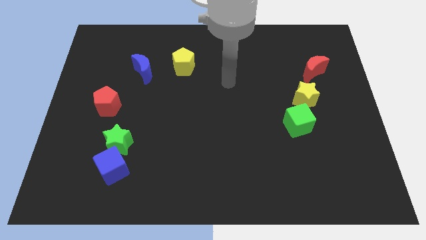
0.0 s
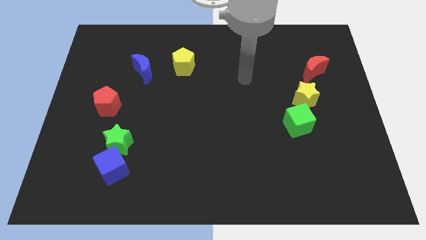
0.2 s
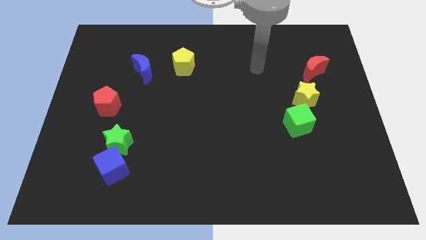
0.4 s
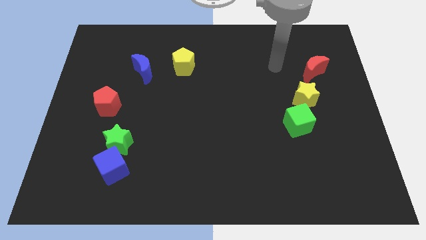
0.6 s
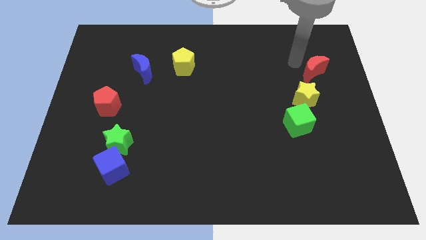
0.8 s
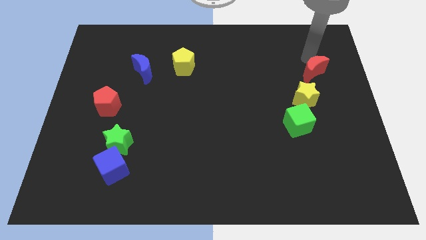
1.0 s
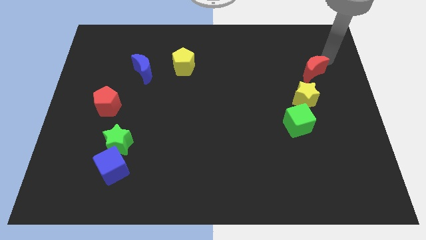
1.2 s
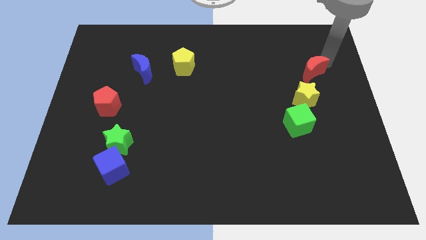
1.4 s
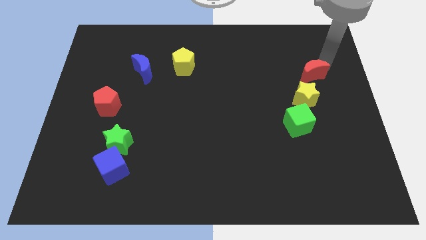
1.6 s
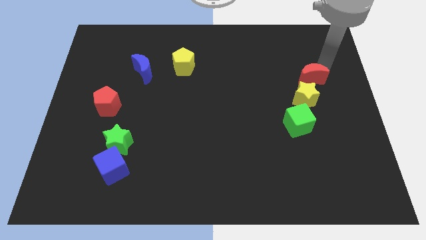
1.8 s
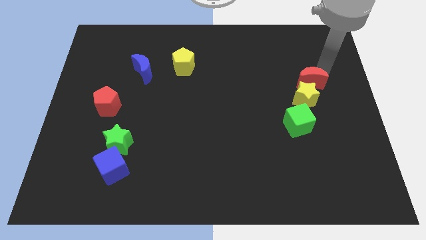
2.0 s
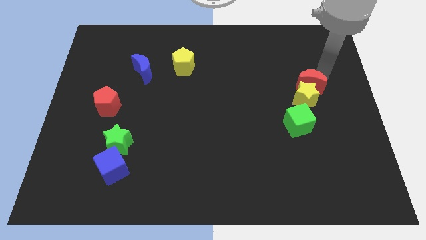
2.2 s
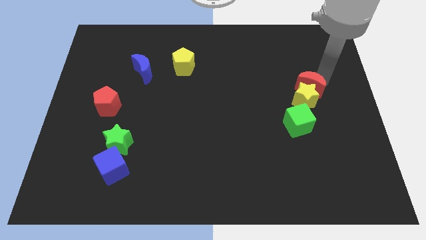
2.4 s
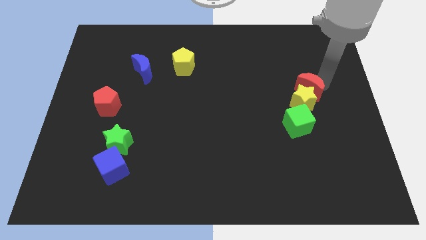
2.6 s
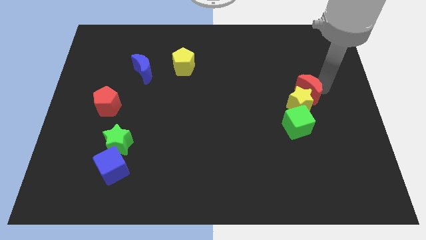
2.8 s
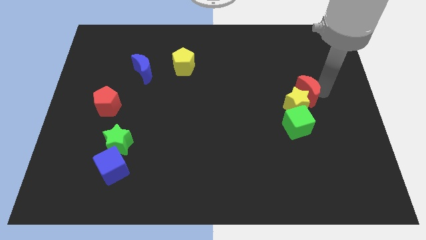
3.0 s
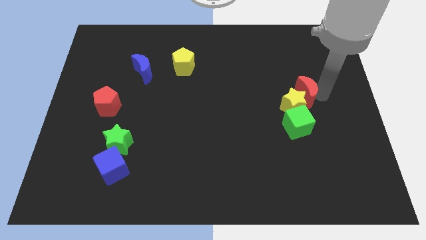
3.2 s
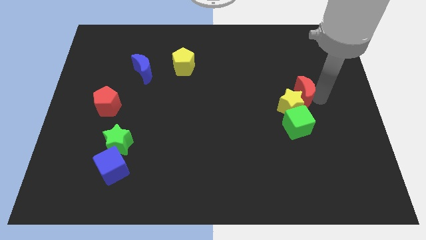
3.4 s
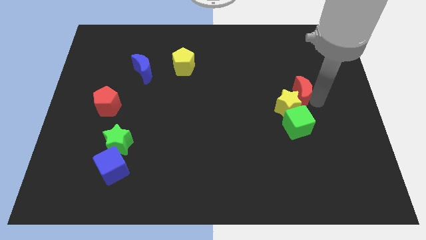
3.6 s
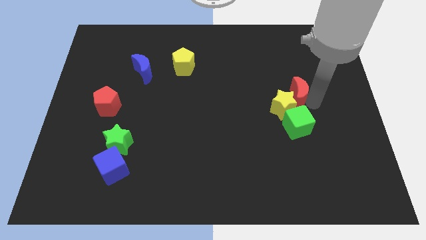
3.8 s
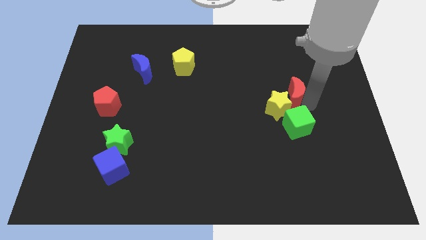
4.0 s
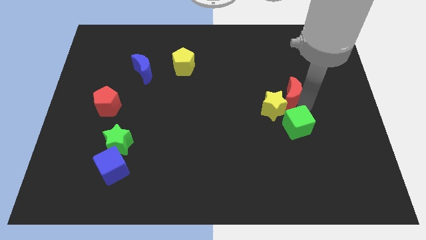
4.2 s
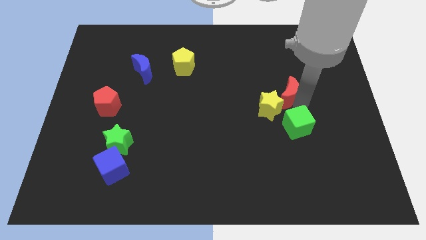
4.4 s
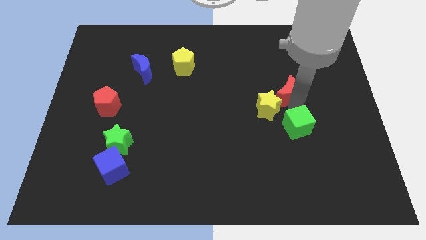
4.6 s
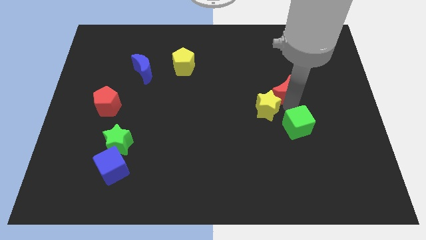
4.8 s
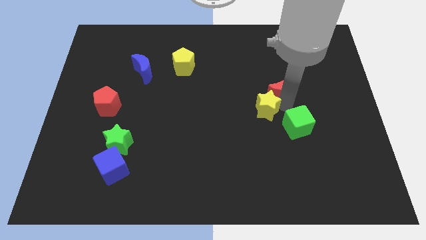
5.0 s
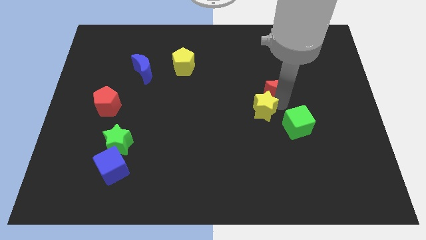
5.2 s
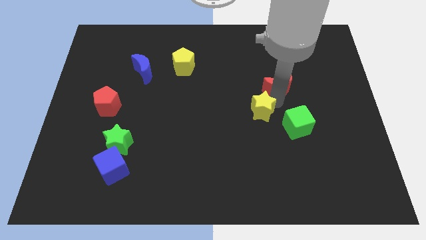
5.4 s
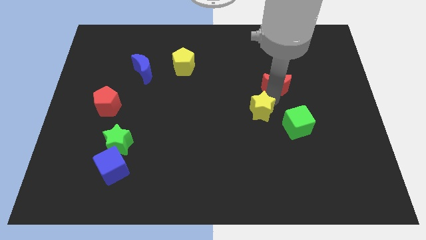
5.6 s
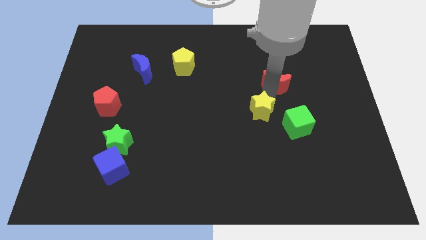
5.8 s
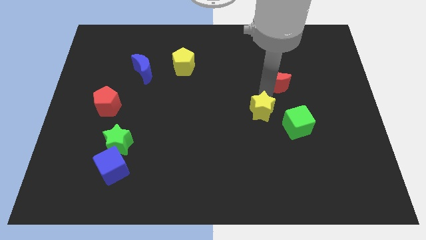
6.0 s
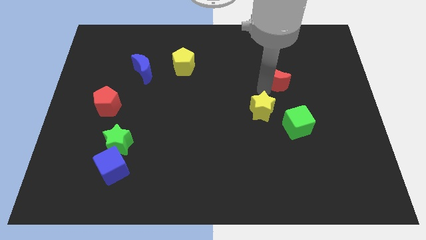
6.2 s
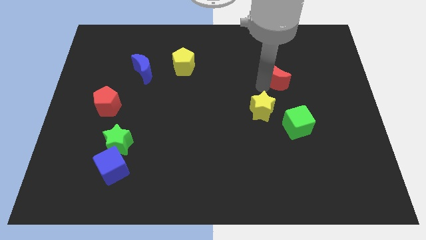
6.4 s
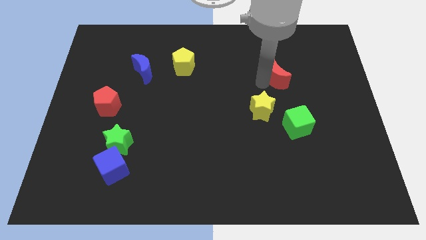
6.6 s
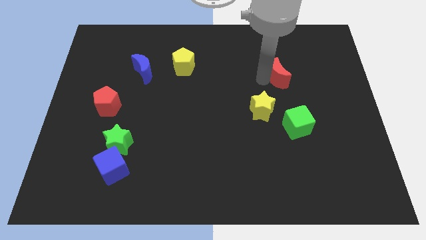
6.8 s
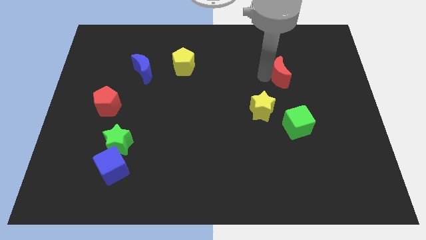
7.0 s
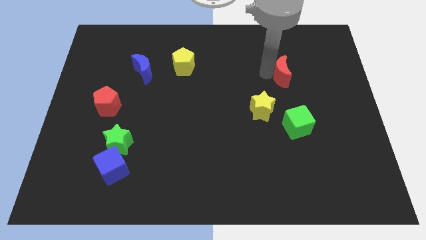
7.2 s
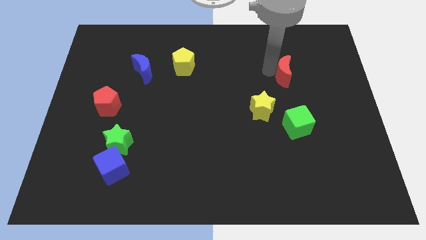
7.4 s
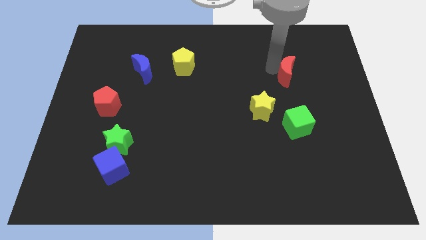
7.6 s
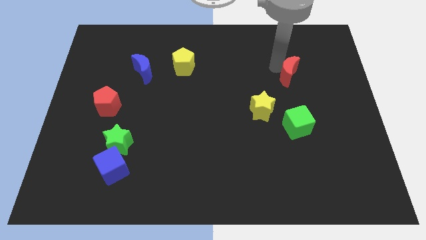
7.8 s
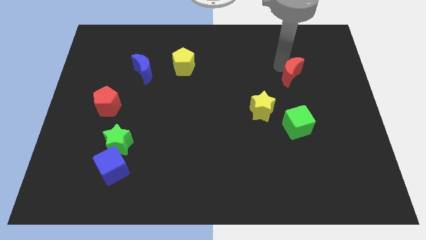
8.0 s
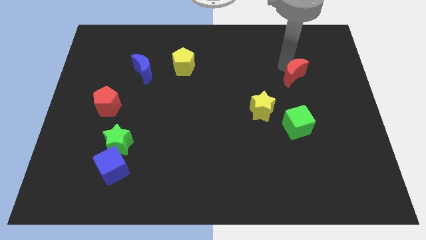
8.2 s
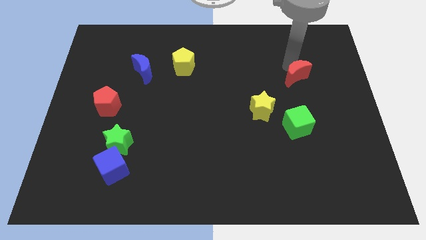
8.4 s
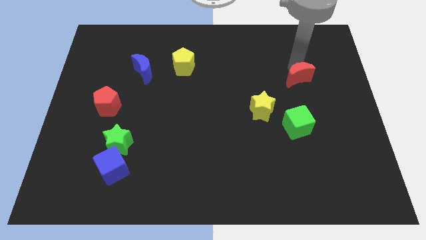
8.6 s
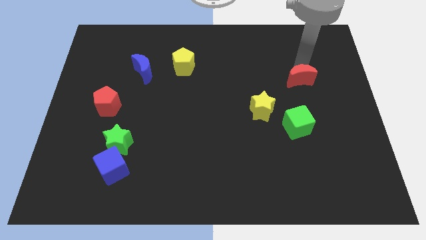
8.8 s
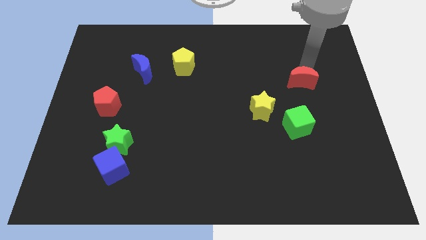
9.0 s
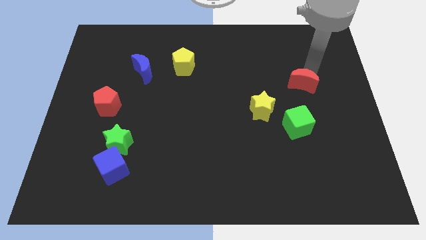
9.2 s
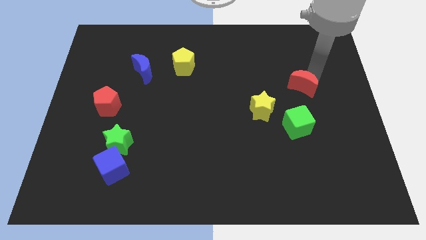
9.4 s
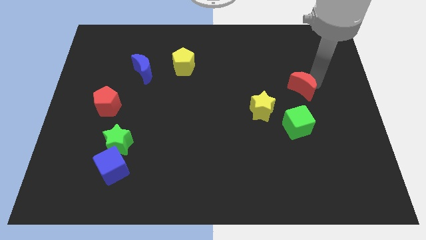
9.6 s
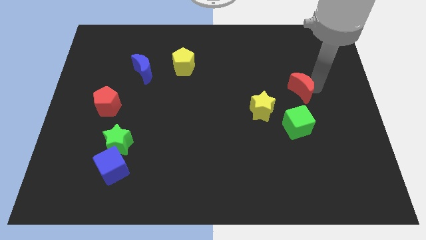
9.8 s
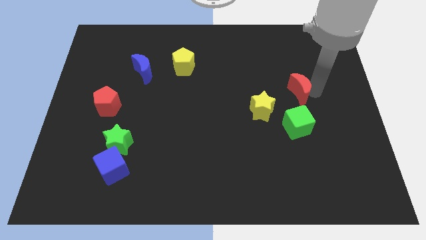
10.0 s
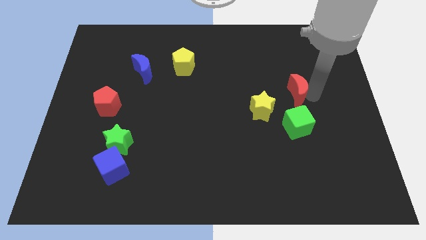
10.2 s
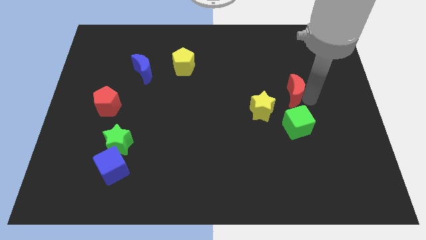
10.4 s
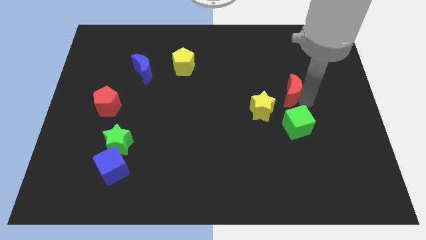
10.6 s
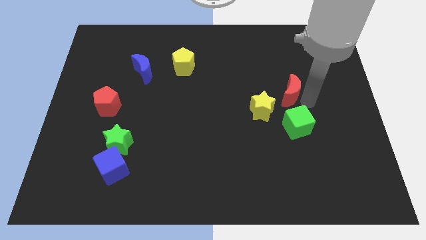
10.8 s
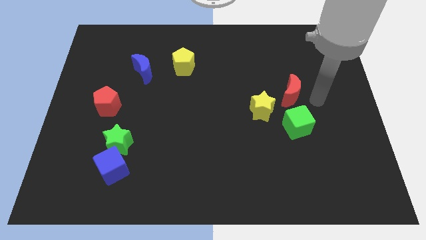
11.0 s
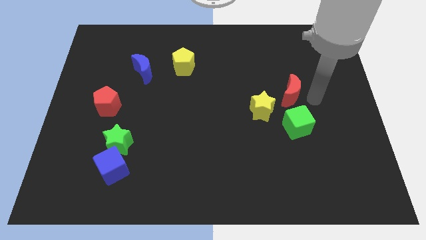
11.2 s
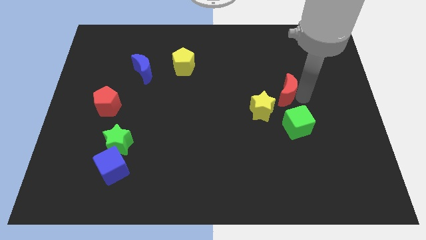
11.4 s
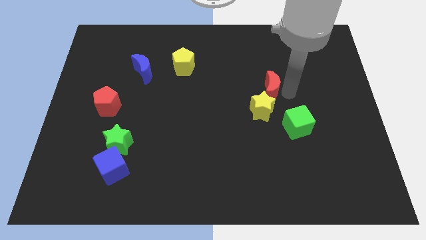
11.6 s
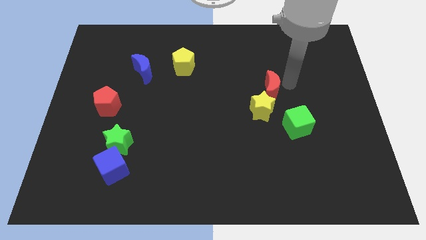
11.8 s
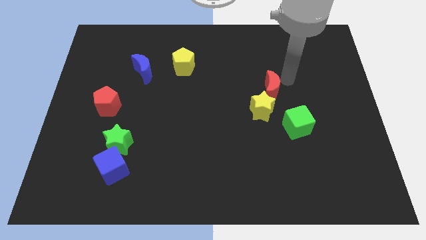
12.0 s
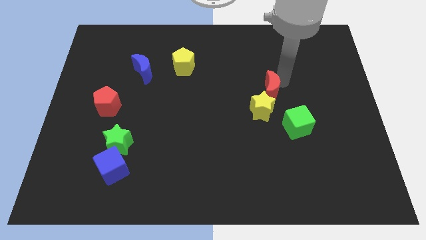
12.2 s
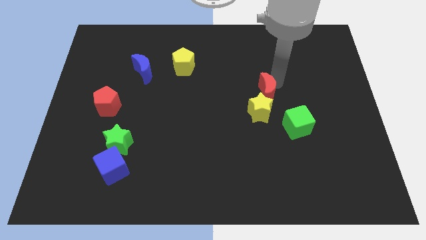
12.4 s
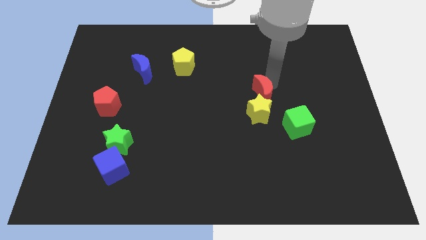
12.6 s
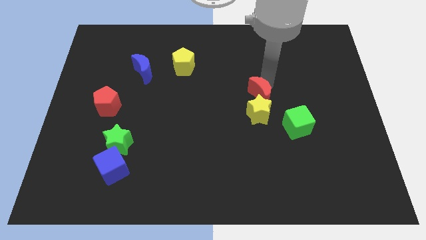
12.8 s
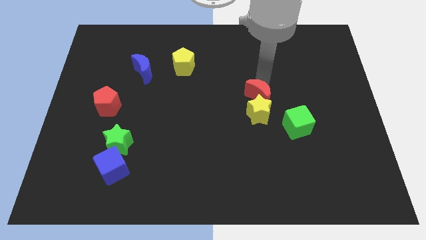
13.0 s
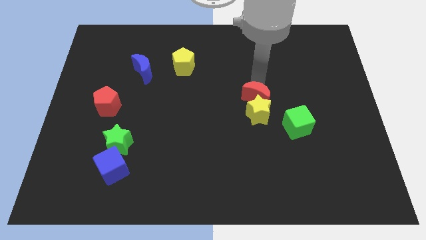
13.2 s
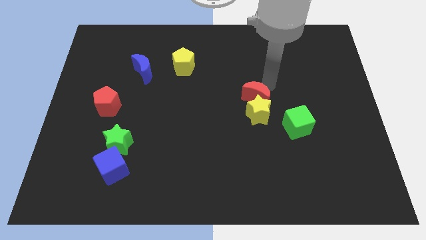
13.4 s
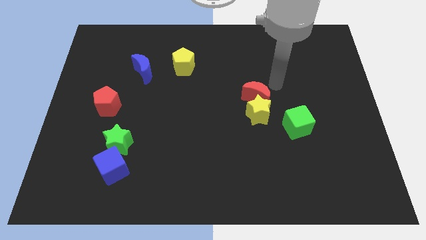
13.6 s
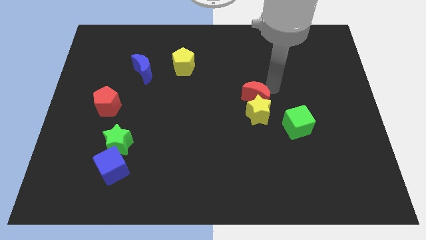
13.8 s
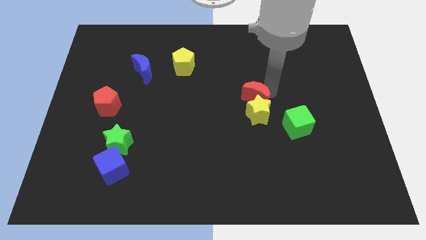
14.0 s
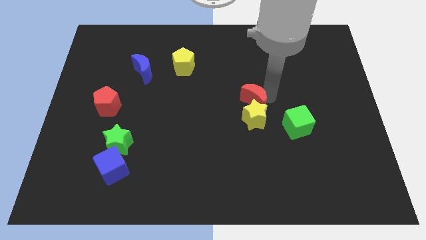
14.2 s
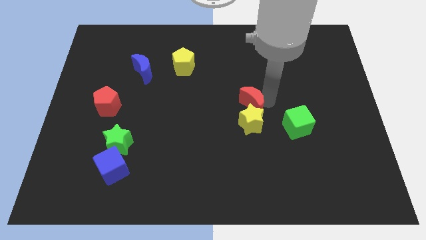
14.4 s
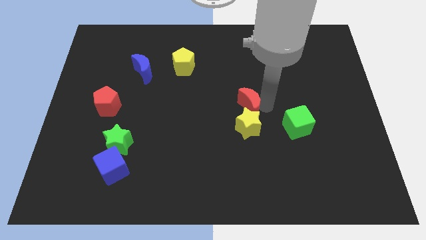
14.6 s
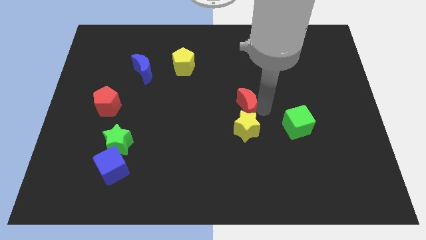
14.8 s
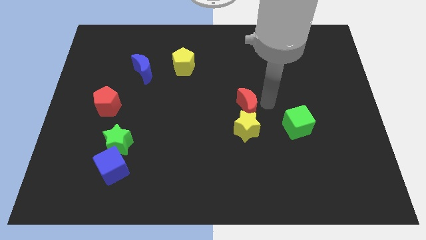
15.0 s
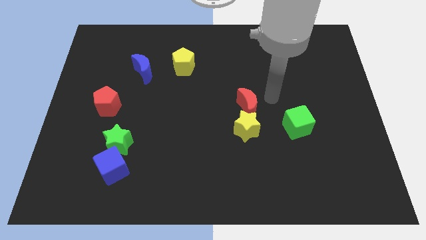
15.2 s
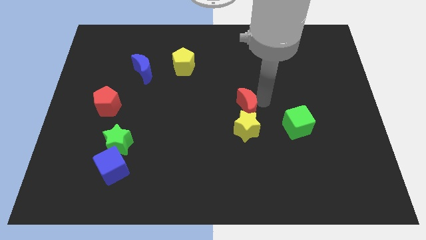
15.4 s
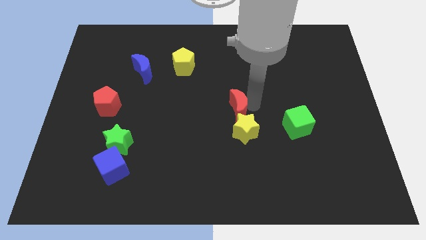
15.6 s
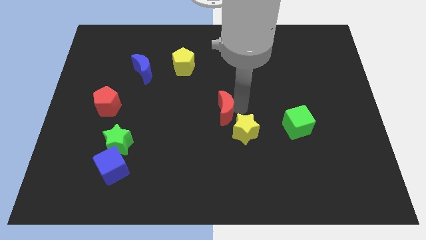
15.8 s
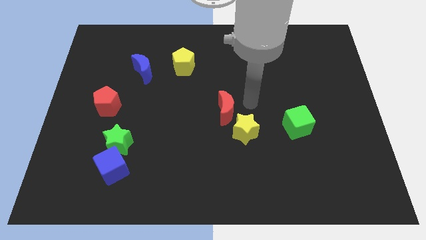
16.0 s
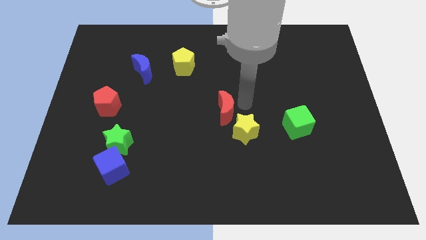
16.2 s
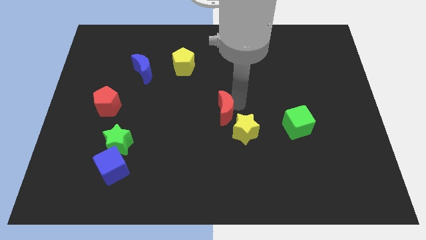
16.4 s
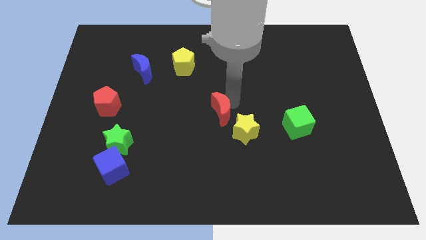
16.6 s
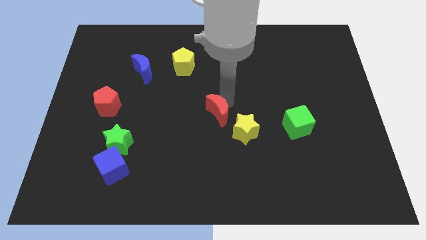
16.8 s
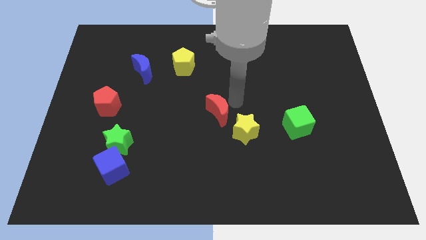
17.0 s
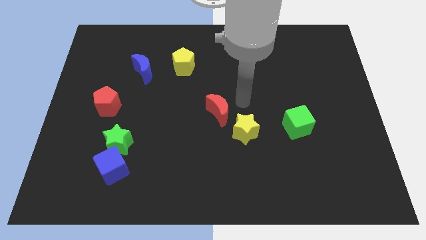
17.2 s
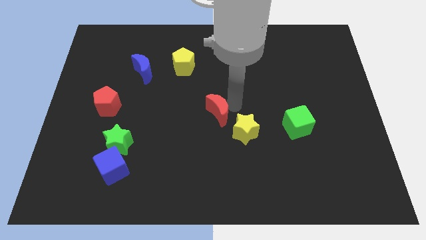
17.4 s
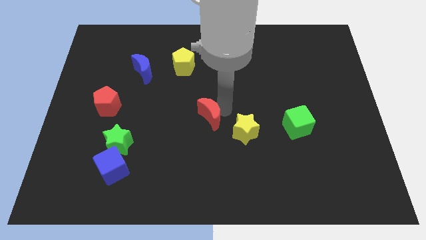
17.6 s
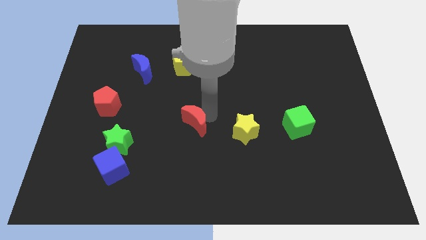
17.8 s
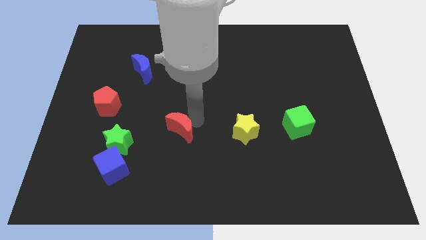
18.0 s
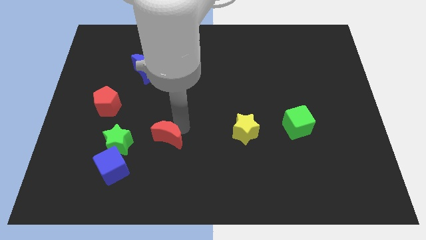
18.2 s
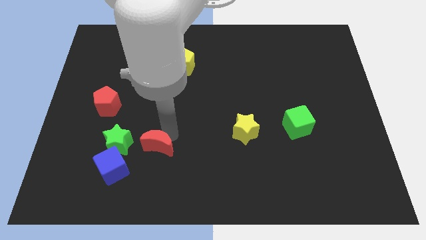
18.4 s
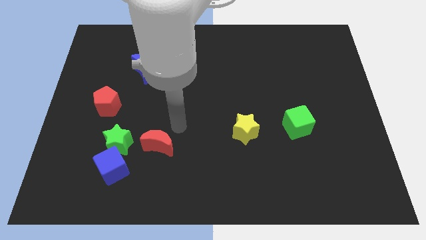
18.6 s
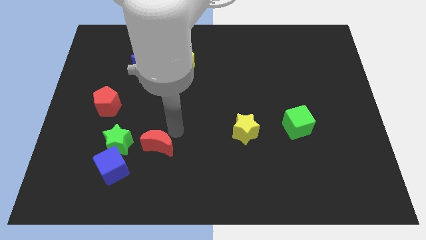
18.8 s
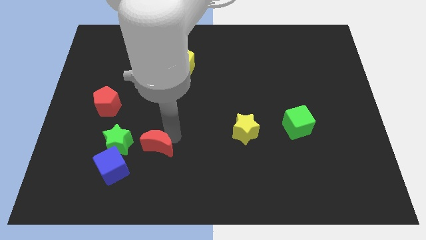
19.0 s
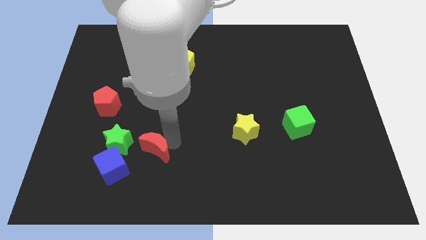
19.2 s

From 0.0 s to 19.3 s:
put the red moon diagonally down and to the right of the green star
